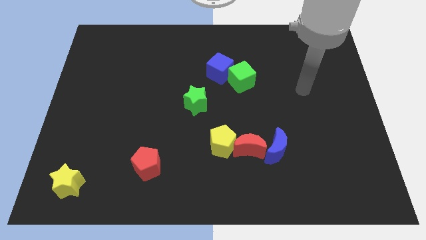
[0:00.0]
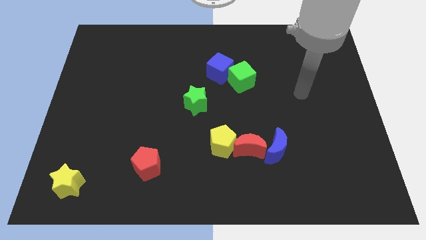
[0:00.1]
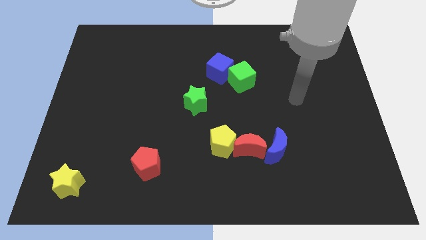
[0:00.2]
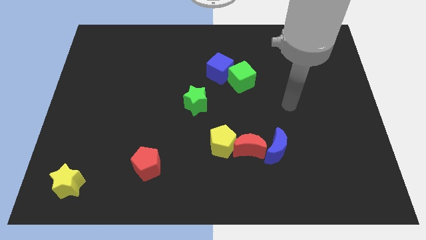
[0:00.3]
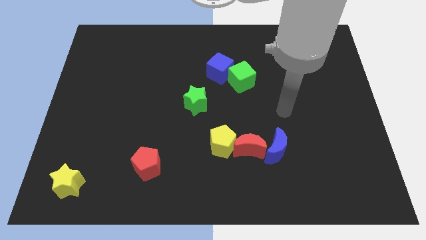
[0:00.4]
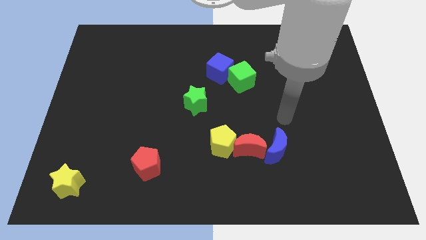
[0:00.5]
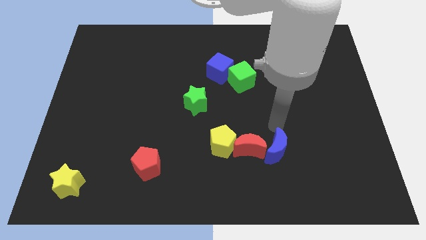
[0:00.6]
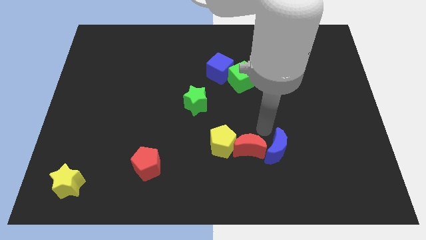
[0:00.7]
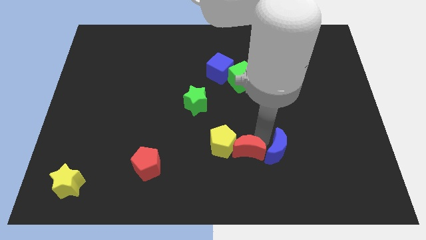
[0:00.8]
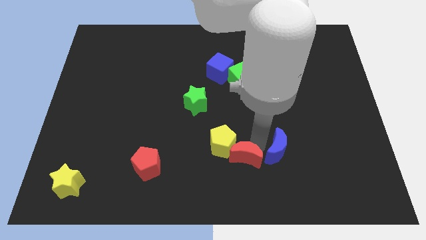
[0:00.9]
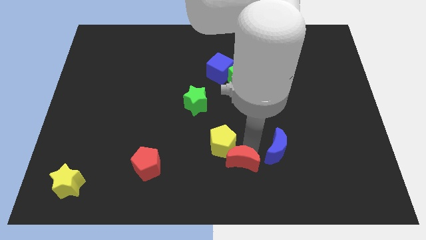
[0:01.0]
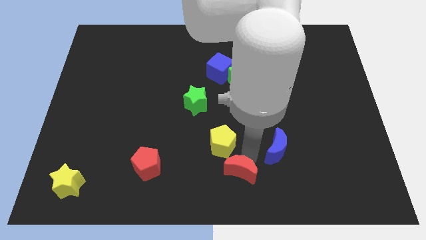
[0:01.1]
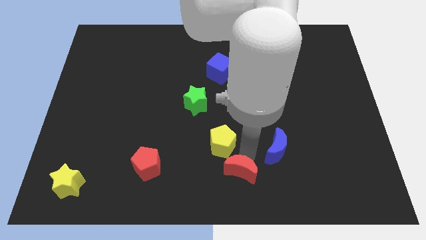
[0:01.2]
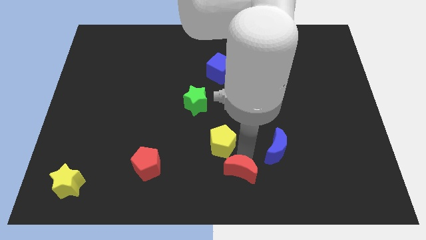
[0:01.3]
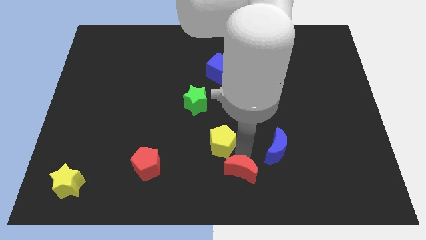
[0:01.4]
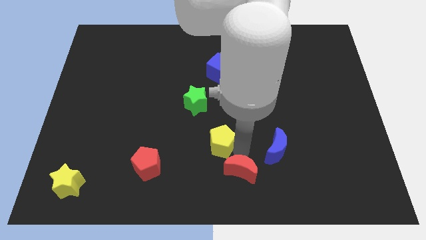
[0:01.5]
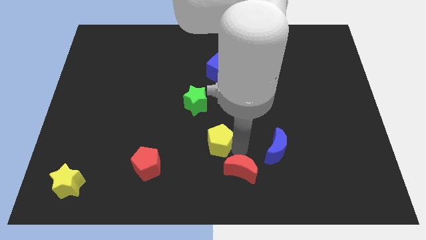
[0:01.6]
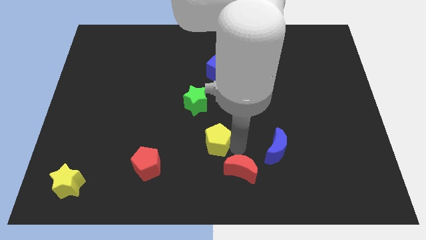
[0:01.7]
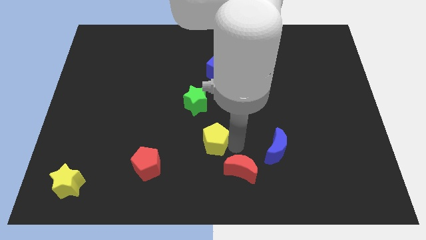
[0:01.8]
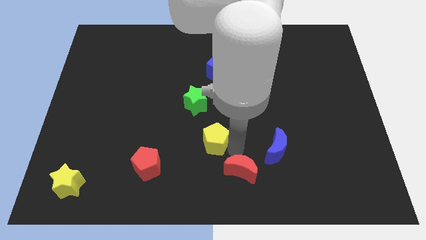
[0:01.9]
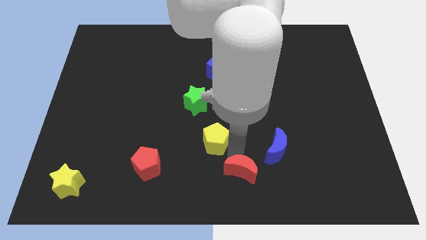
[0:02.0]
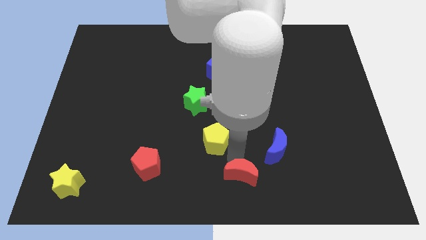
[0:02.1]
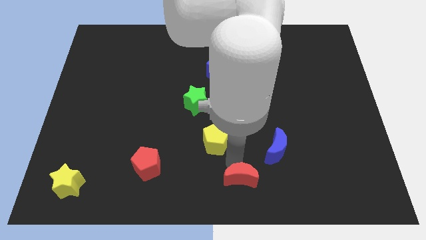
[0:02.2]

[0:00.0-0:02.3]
separate the yellow pentagon from the red moon

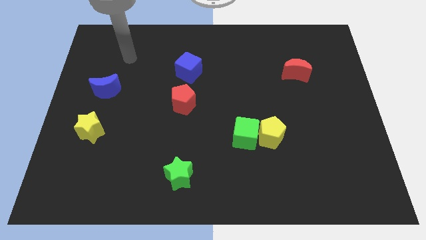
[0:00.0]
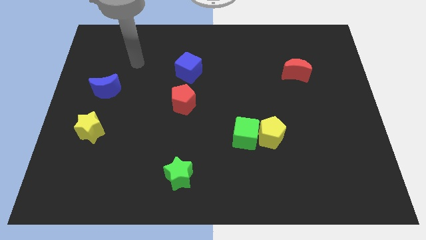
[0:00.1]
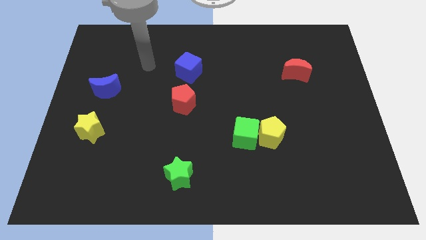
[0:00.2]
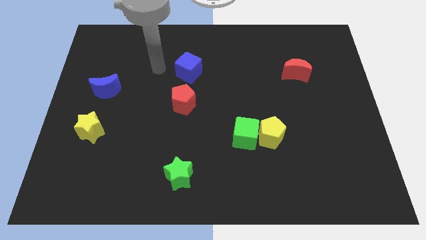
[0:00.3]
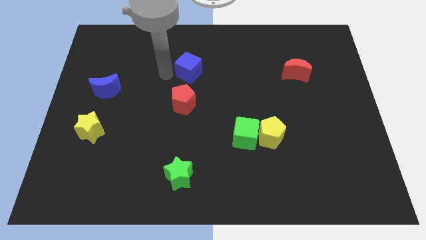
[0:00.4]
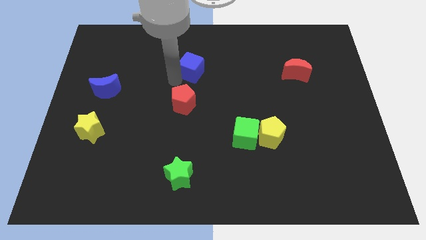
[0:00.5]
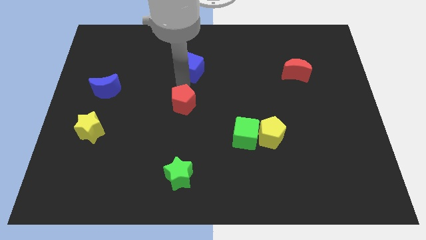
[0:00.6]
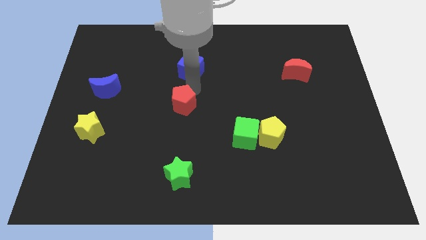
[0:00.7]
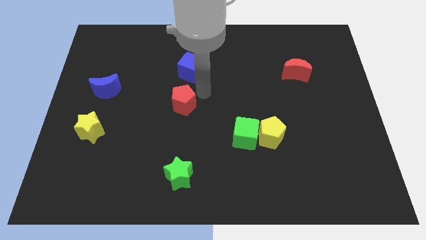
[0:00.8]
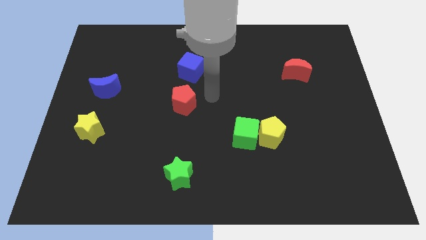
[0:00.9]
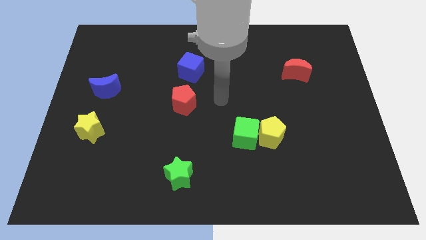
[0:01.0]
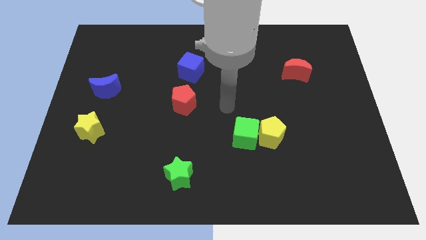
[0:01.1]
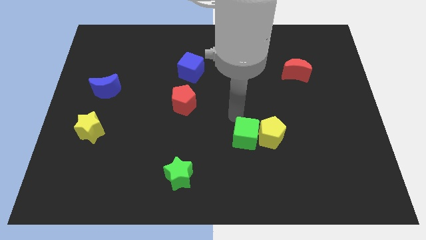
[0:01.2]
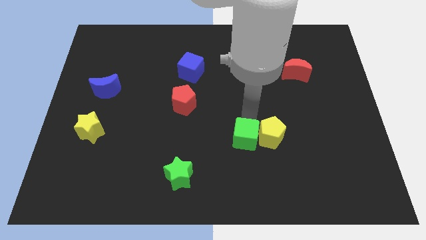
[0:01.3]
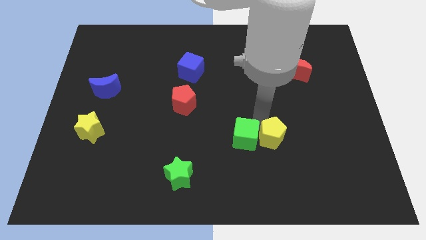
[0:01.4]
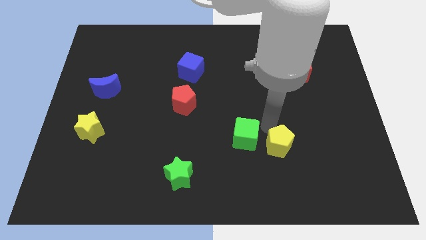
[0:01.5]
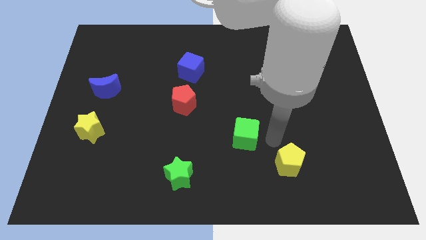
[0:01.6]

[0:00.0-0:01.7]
pull the green cube apart from the yellow pentagon

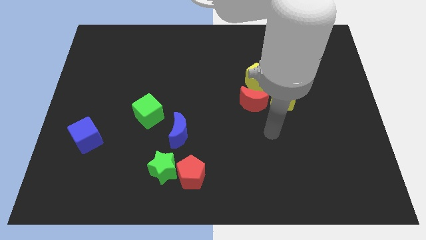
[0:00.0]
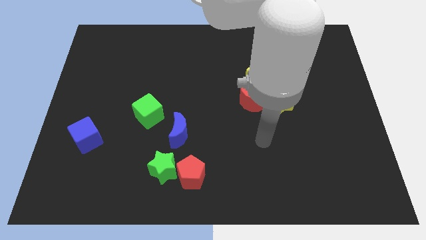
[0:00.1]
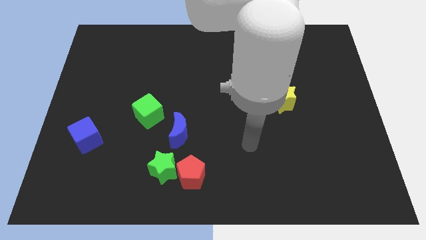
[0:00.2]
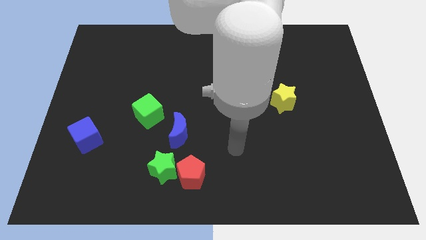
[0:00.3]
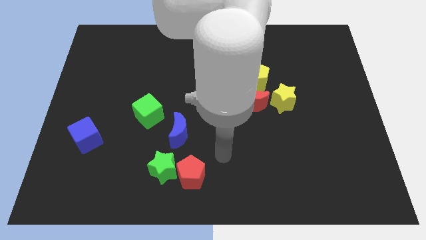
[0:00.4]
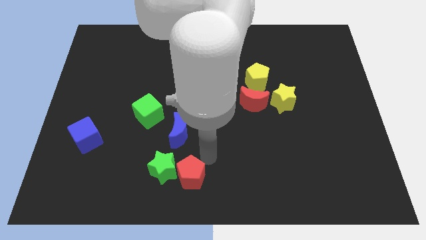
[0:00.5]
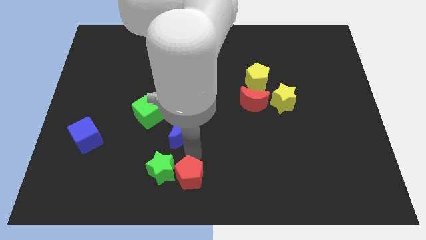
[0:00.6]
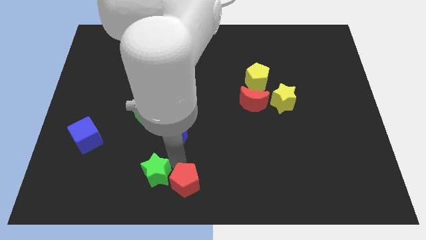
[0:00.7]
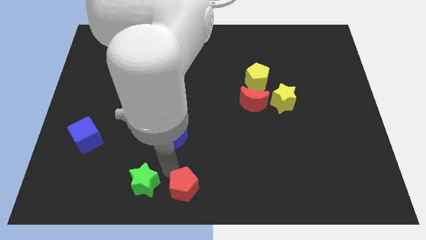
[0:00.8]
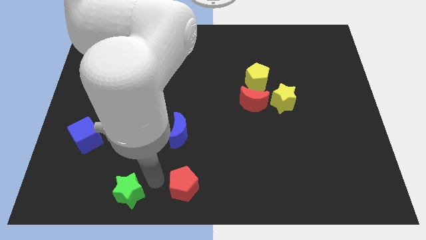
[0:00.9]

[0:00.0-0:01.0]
move the red pentagon away from the green star

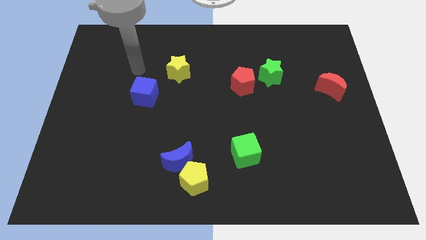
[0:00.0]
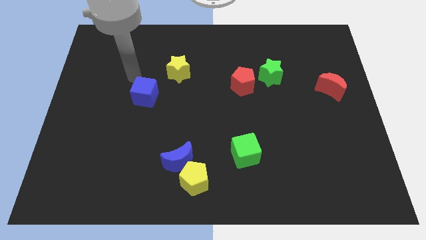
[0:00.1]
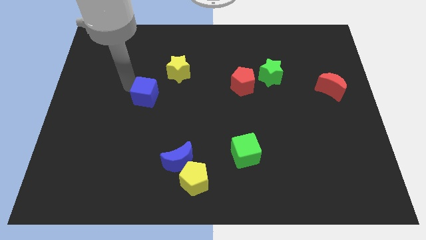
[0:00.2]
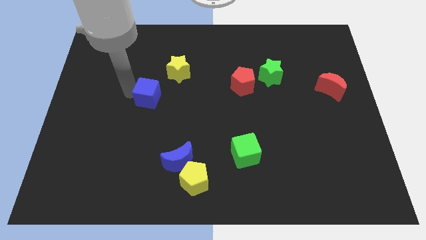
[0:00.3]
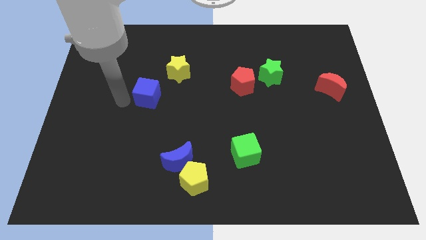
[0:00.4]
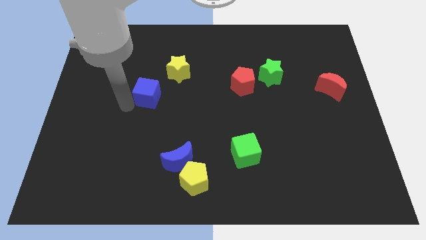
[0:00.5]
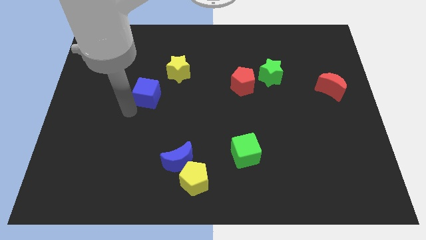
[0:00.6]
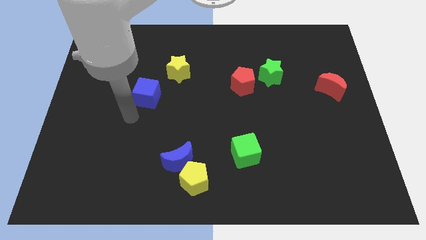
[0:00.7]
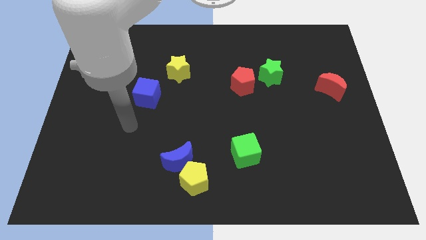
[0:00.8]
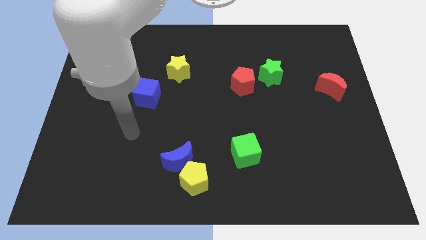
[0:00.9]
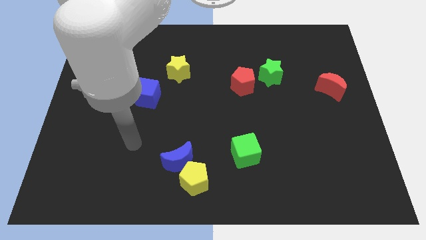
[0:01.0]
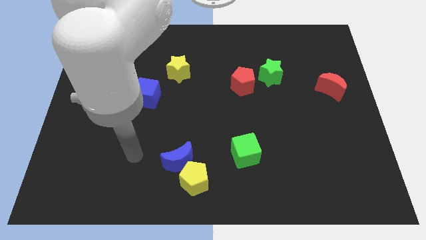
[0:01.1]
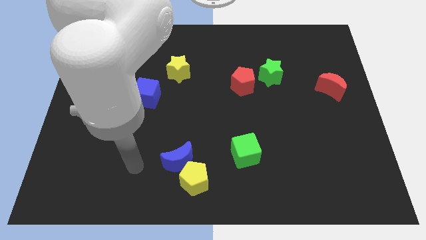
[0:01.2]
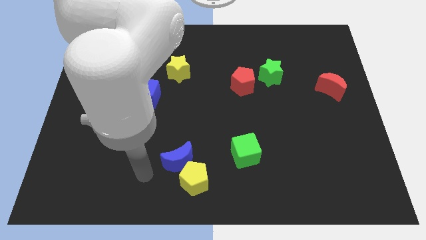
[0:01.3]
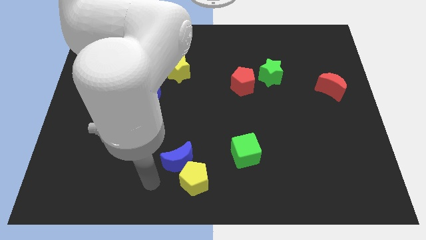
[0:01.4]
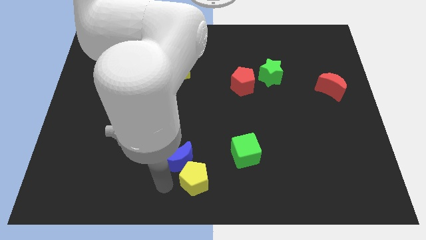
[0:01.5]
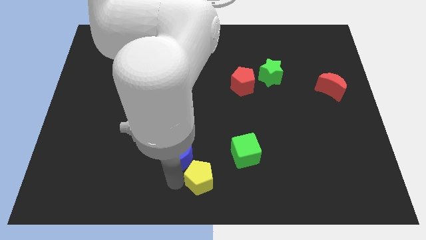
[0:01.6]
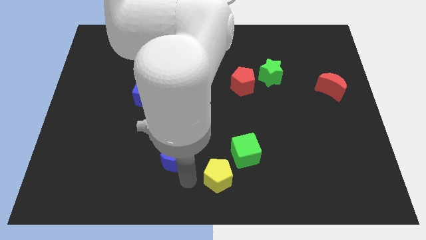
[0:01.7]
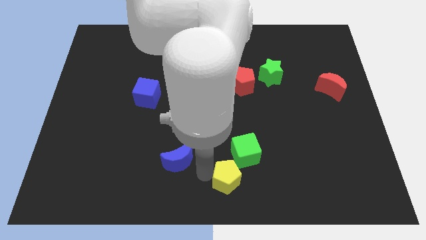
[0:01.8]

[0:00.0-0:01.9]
move the blue moon away from the yellow pentagon

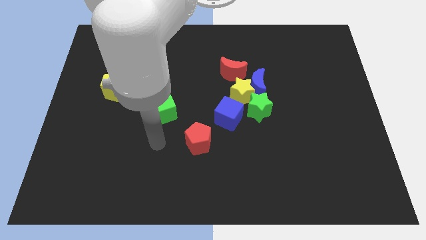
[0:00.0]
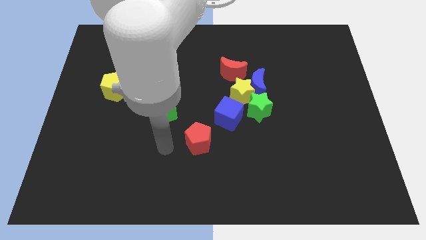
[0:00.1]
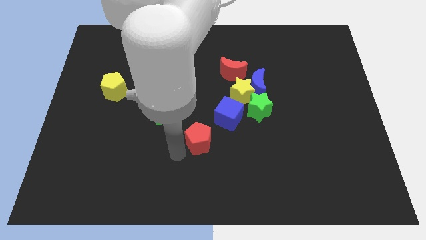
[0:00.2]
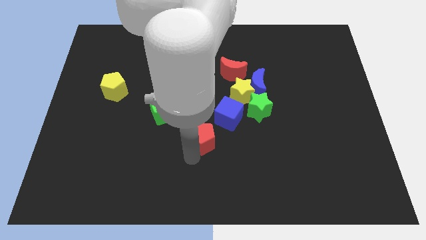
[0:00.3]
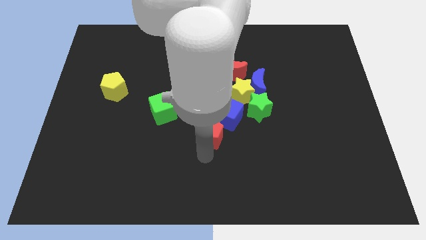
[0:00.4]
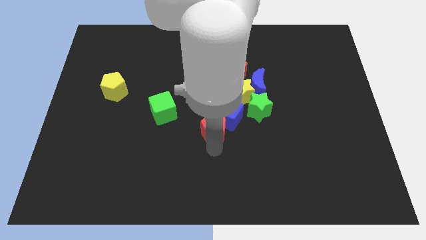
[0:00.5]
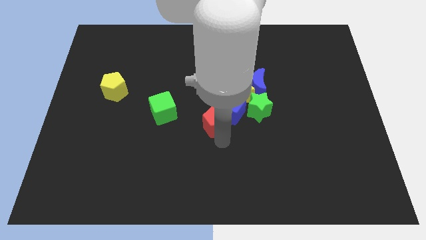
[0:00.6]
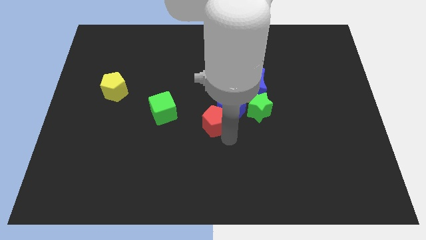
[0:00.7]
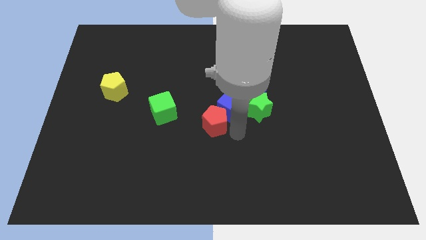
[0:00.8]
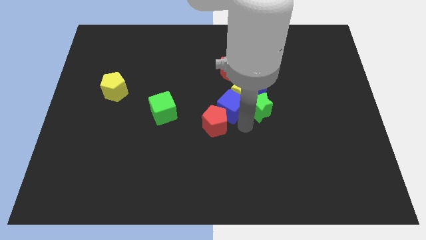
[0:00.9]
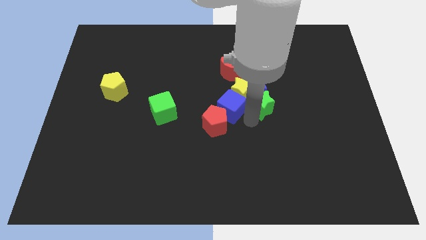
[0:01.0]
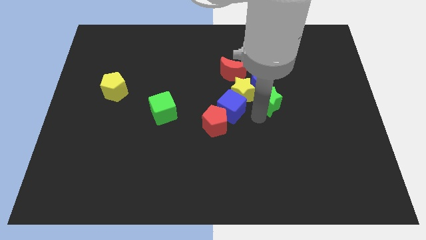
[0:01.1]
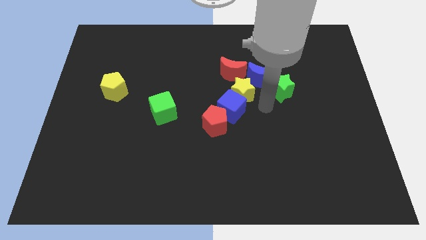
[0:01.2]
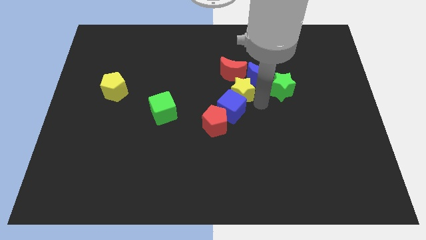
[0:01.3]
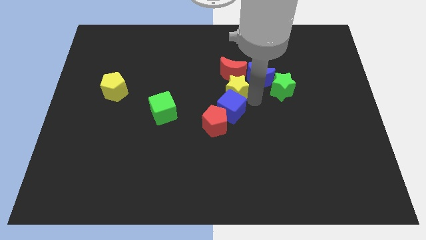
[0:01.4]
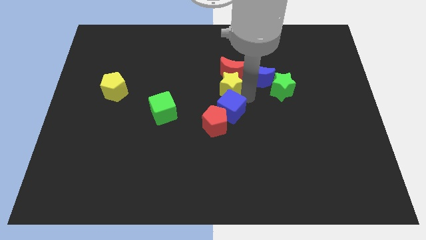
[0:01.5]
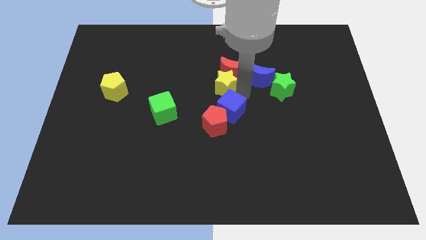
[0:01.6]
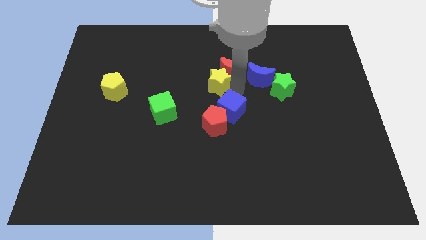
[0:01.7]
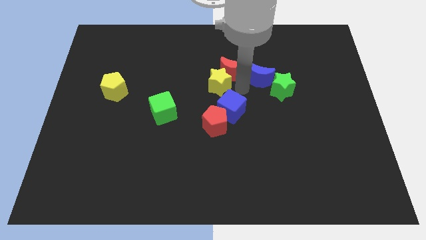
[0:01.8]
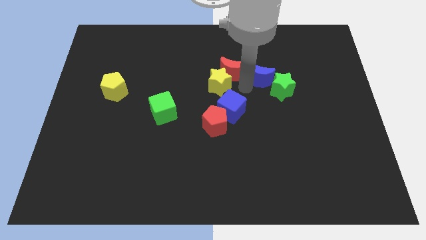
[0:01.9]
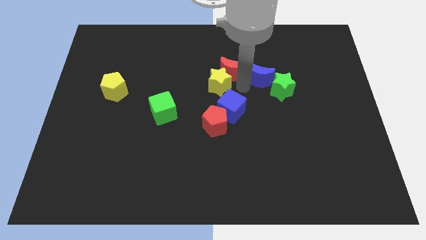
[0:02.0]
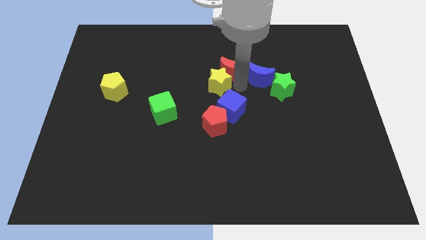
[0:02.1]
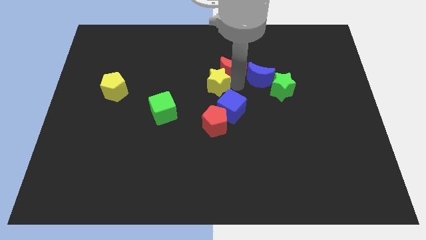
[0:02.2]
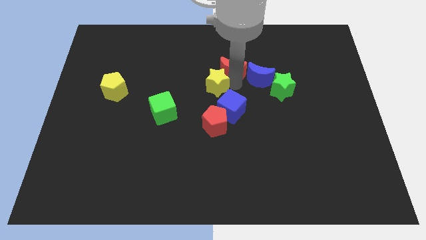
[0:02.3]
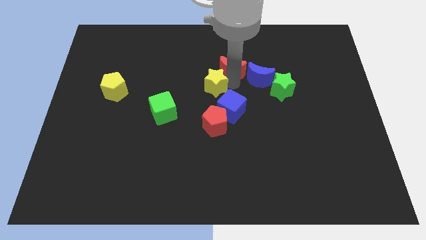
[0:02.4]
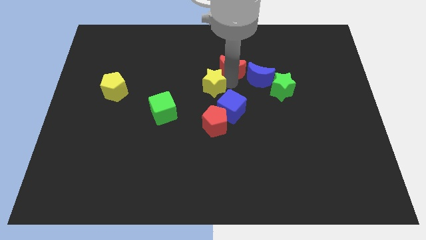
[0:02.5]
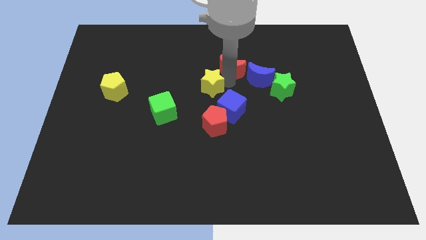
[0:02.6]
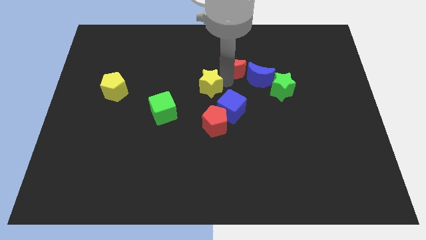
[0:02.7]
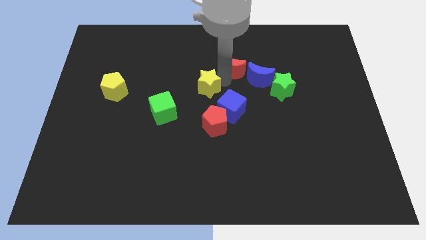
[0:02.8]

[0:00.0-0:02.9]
pull the yellow star apart from the group
